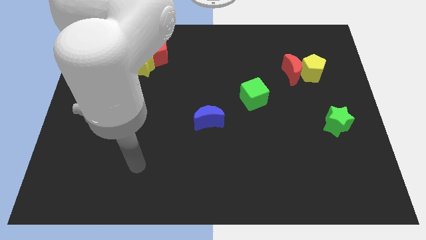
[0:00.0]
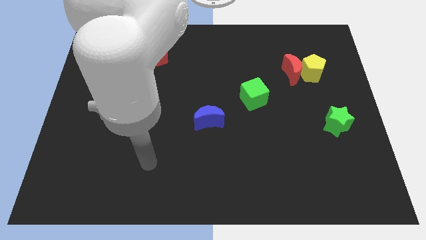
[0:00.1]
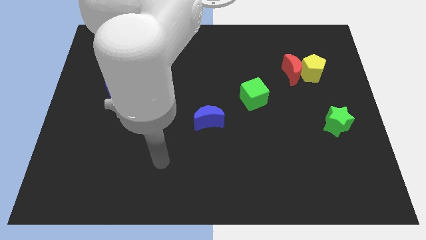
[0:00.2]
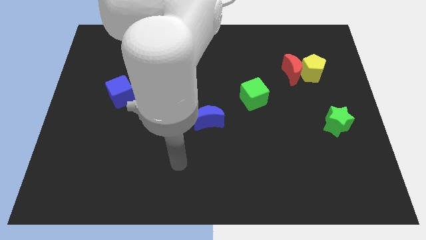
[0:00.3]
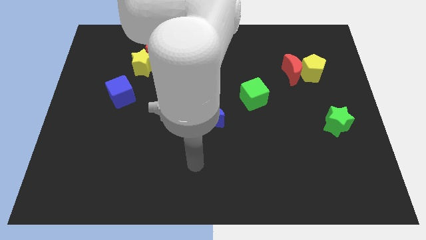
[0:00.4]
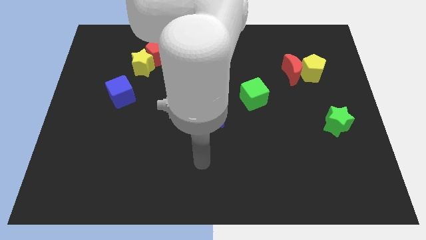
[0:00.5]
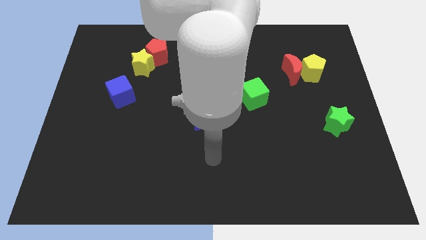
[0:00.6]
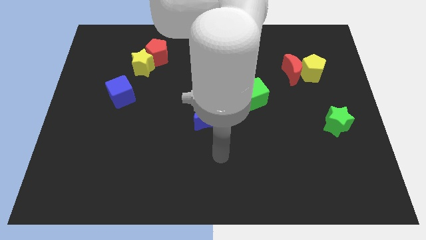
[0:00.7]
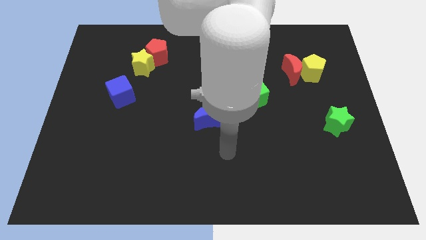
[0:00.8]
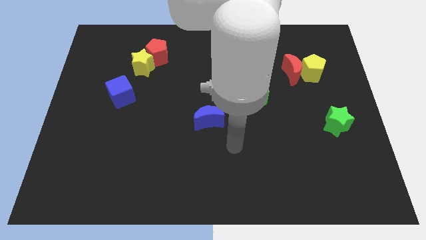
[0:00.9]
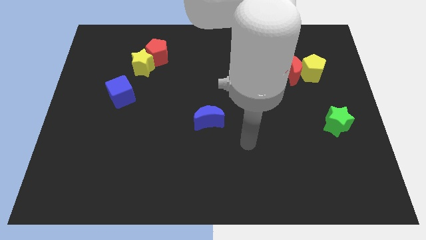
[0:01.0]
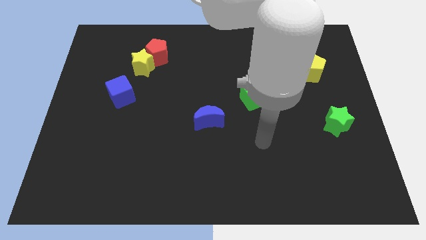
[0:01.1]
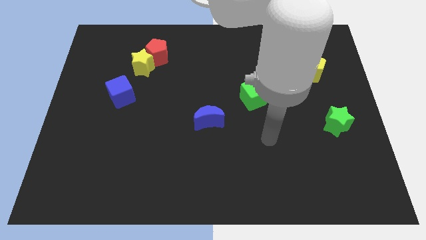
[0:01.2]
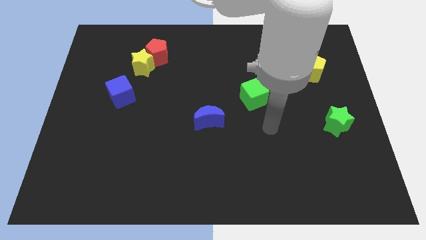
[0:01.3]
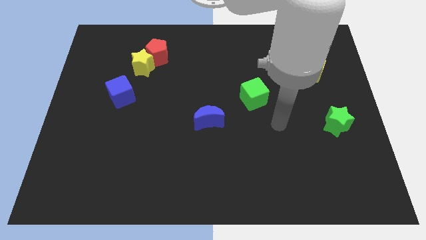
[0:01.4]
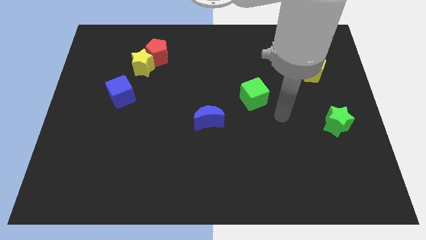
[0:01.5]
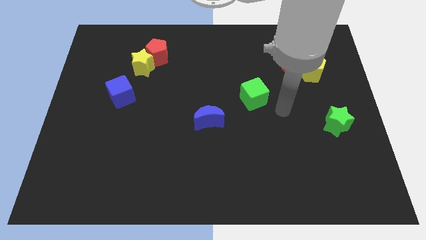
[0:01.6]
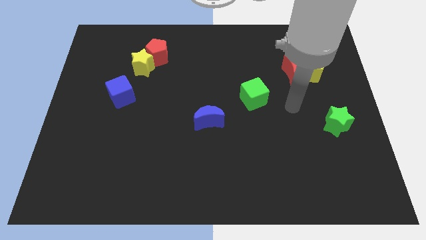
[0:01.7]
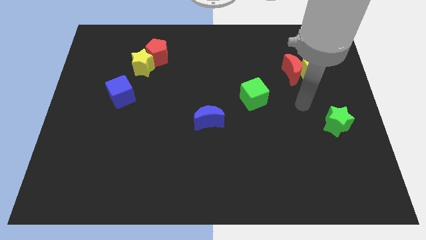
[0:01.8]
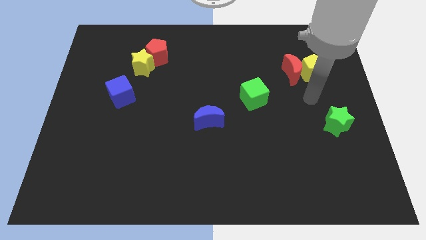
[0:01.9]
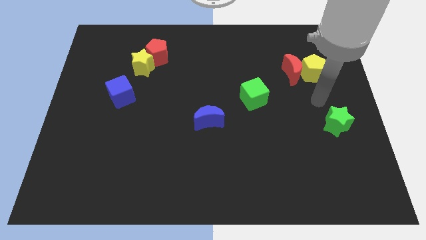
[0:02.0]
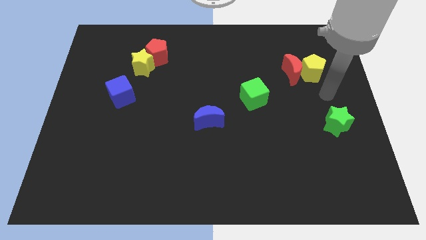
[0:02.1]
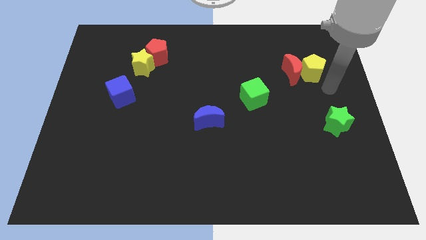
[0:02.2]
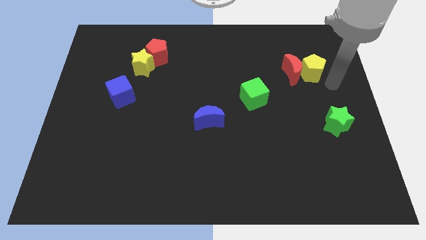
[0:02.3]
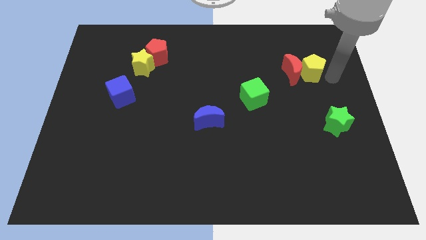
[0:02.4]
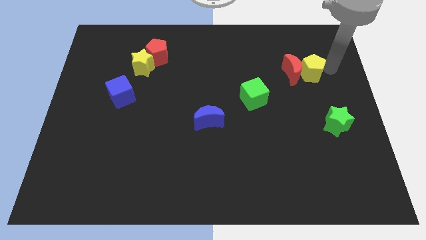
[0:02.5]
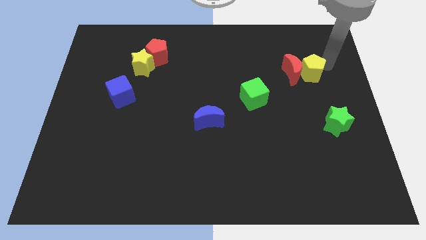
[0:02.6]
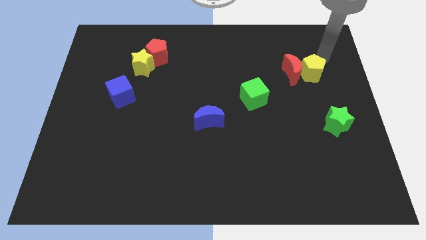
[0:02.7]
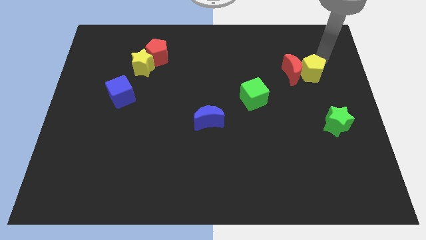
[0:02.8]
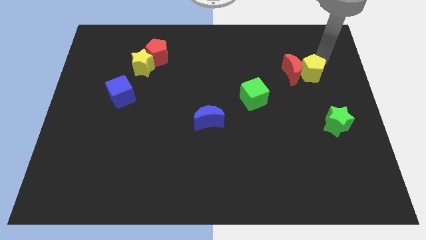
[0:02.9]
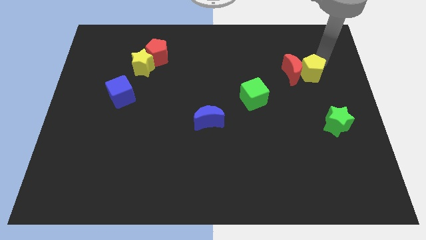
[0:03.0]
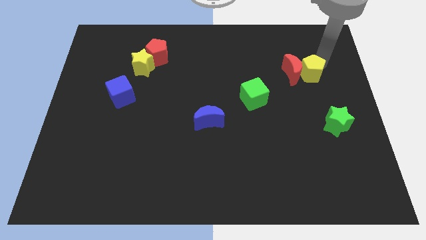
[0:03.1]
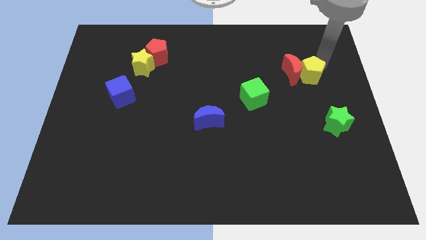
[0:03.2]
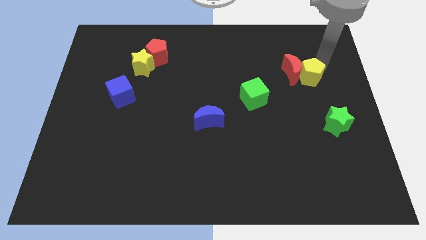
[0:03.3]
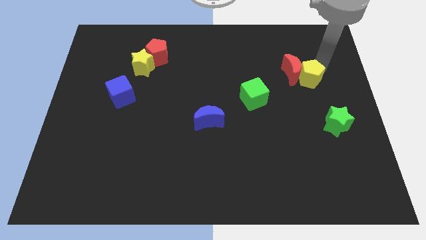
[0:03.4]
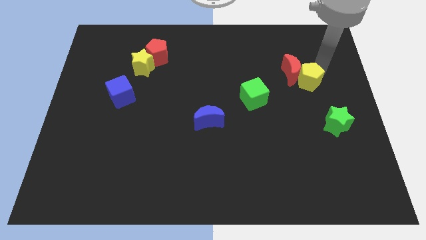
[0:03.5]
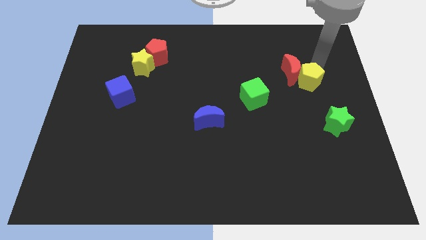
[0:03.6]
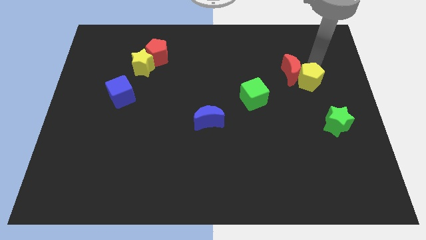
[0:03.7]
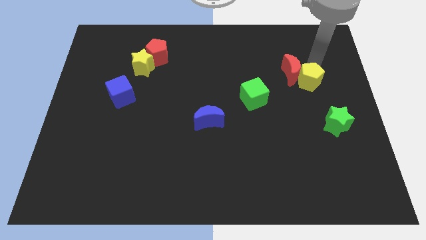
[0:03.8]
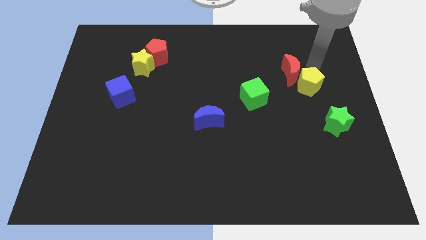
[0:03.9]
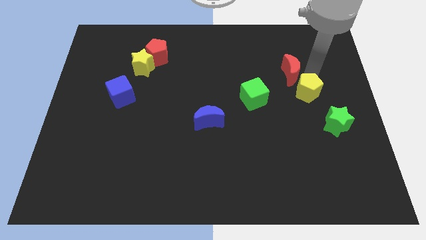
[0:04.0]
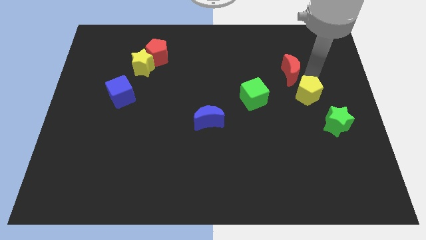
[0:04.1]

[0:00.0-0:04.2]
slightly push the yellow pentagon down

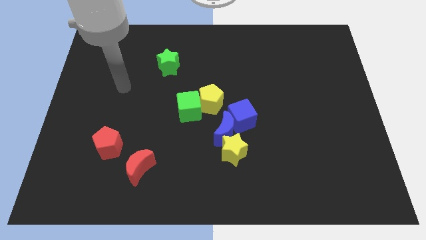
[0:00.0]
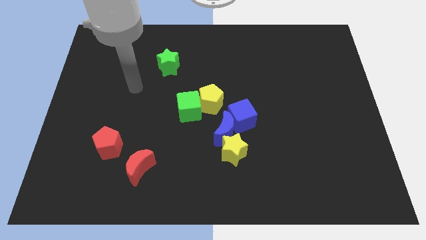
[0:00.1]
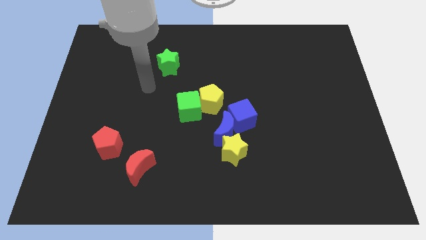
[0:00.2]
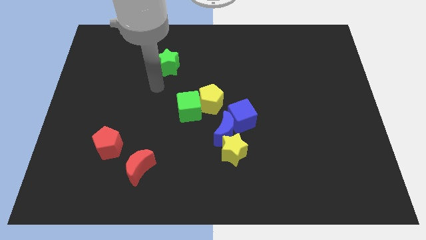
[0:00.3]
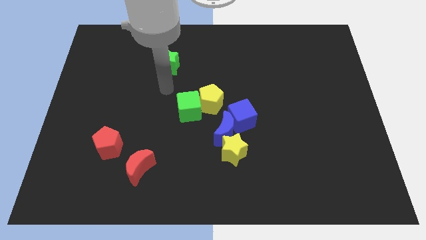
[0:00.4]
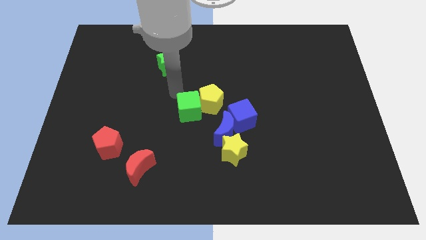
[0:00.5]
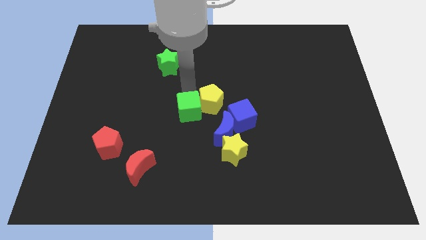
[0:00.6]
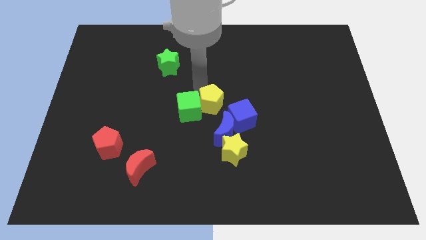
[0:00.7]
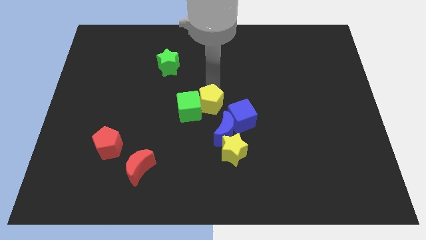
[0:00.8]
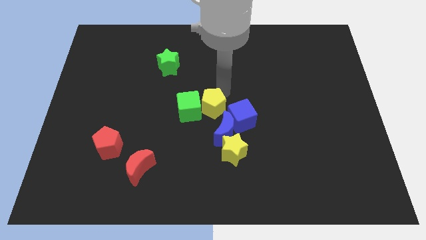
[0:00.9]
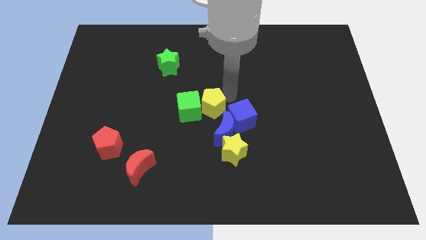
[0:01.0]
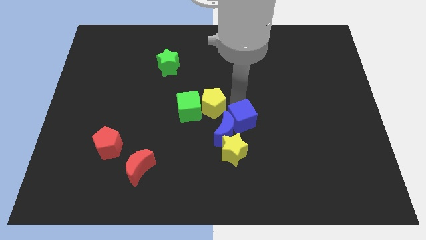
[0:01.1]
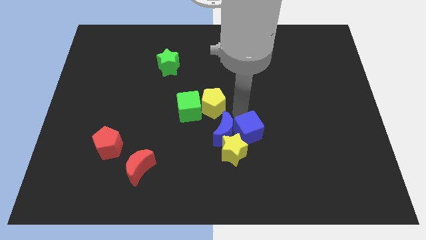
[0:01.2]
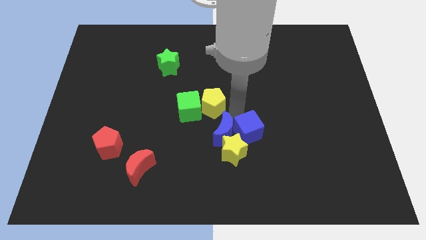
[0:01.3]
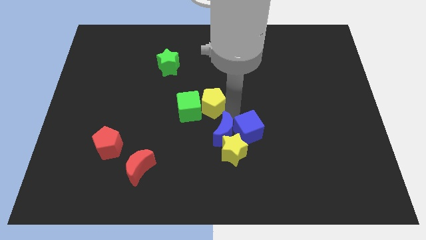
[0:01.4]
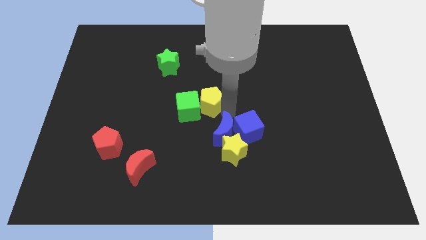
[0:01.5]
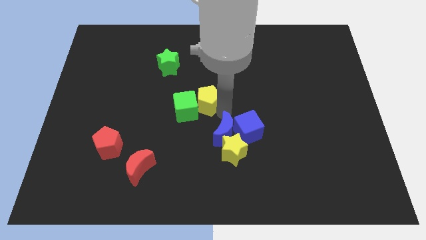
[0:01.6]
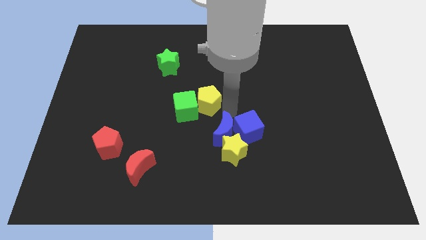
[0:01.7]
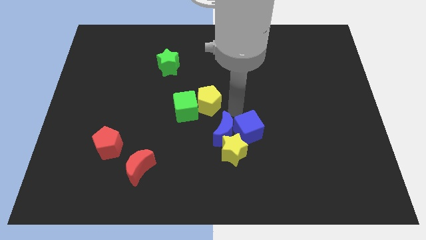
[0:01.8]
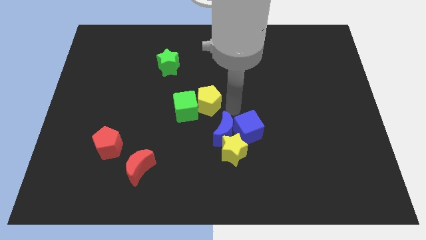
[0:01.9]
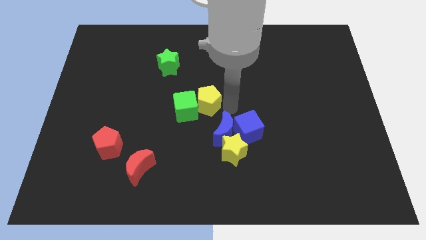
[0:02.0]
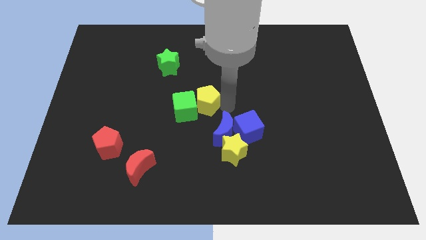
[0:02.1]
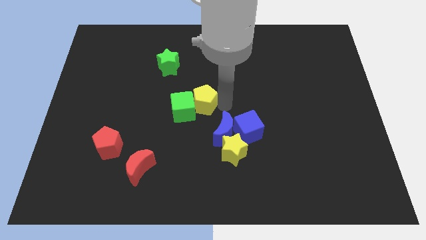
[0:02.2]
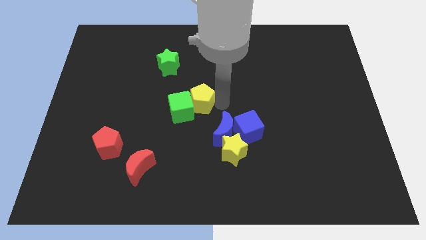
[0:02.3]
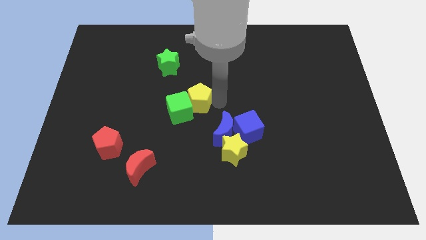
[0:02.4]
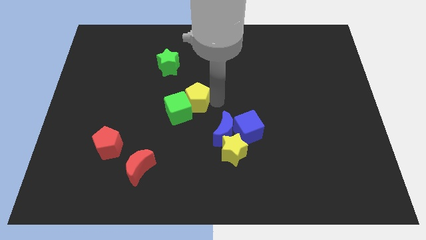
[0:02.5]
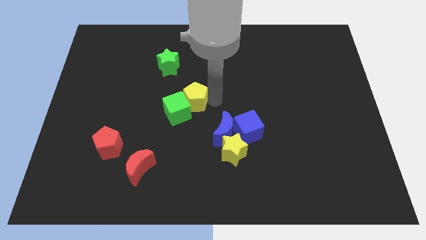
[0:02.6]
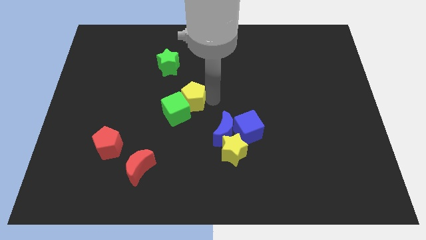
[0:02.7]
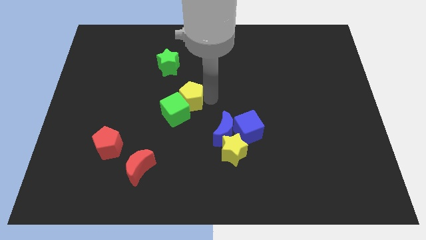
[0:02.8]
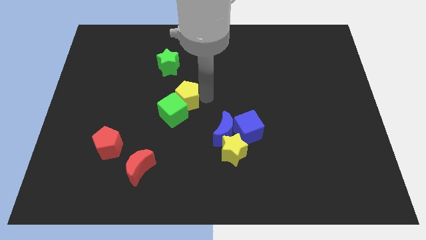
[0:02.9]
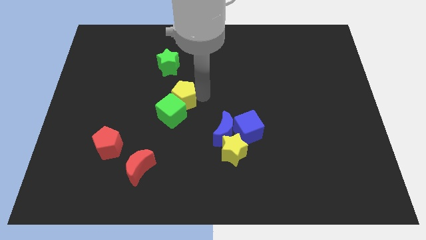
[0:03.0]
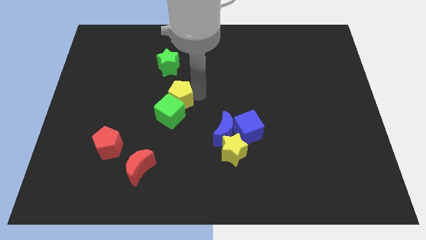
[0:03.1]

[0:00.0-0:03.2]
push the yellow pentagon somewhat left

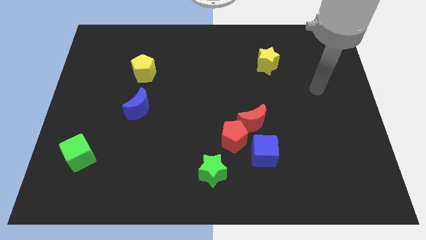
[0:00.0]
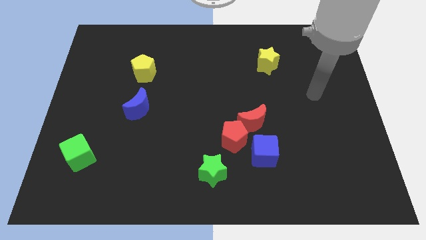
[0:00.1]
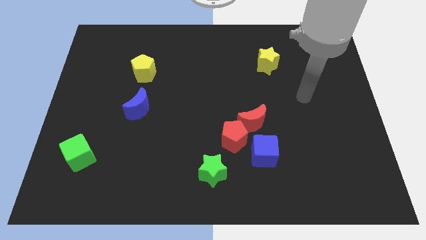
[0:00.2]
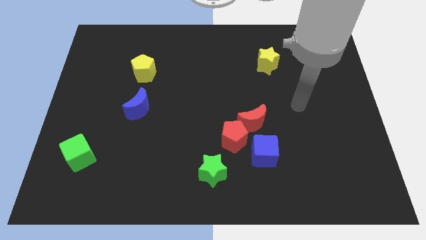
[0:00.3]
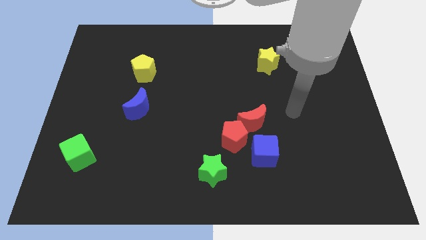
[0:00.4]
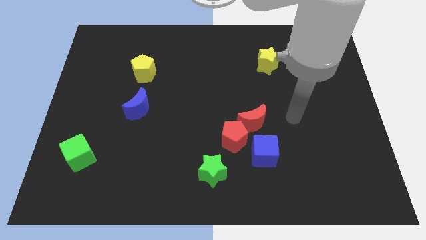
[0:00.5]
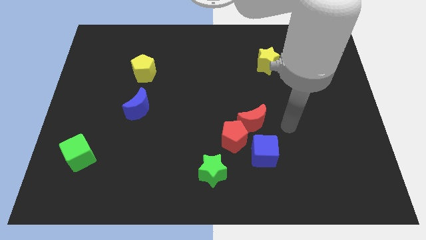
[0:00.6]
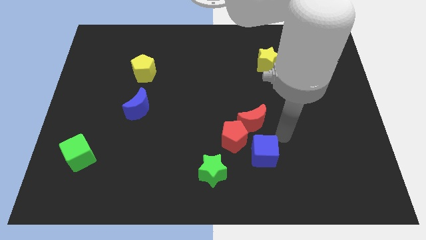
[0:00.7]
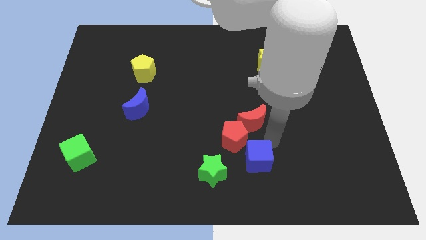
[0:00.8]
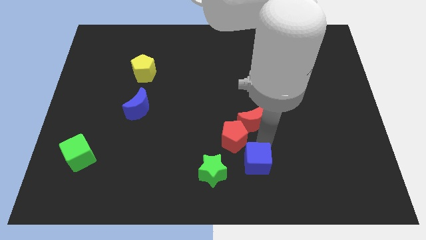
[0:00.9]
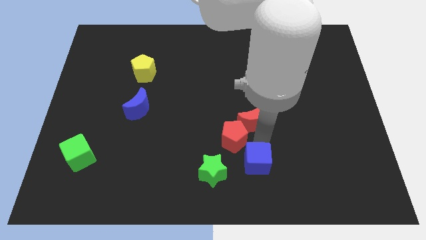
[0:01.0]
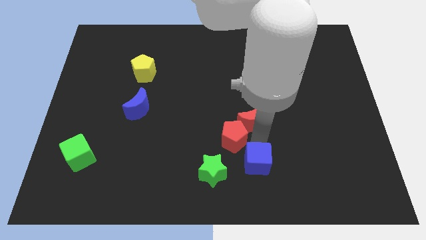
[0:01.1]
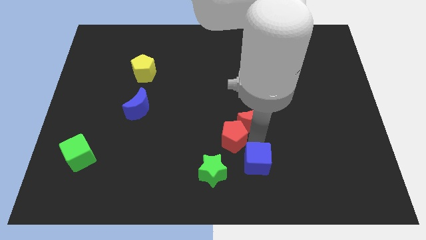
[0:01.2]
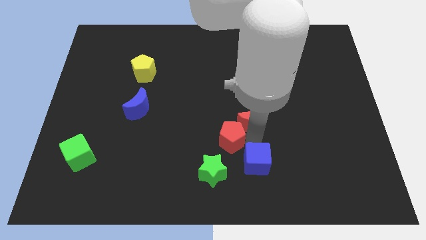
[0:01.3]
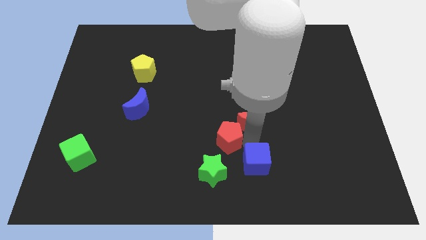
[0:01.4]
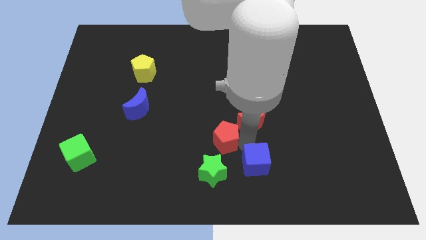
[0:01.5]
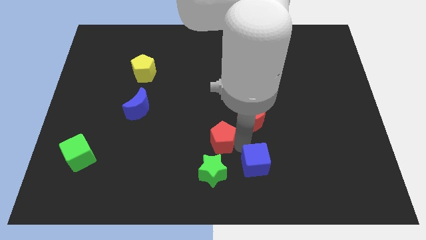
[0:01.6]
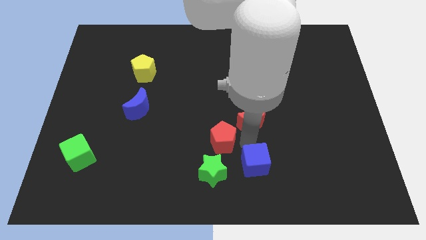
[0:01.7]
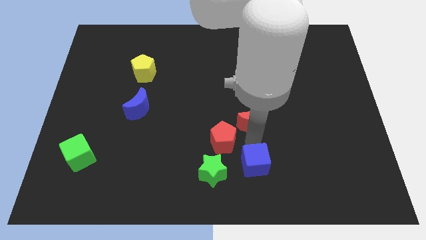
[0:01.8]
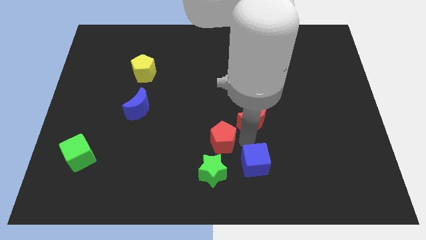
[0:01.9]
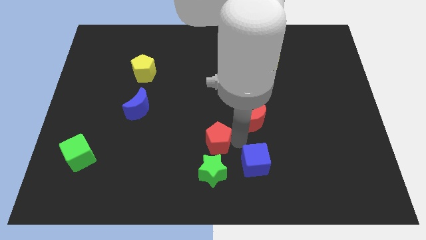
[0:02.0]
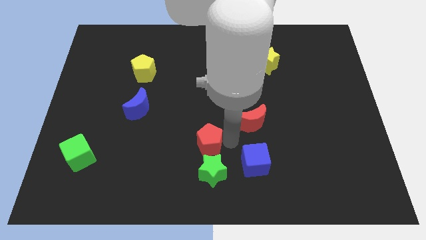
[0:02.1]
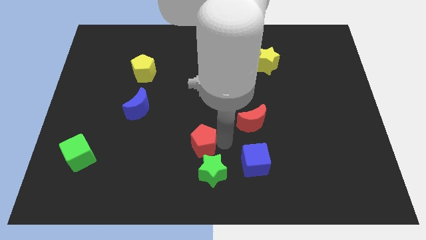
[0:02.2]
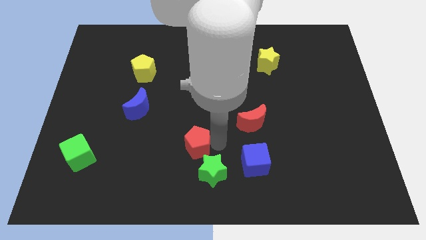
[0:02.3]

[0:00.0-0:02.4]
move the red pentagon left slightly
